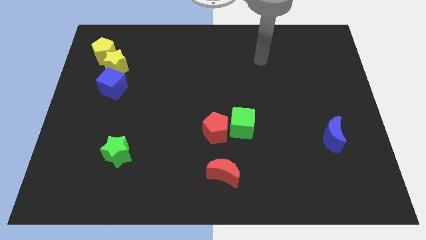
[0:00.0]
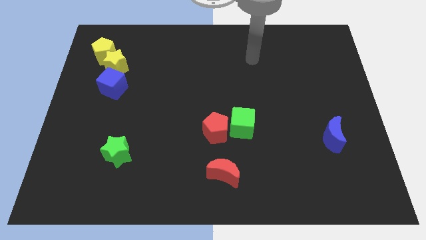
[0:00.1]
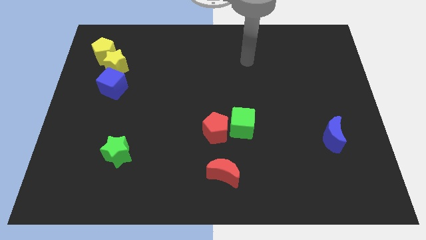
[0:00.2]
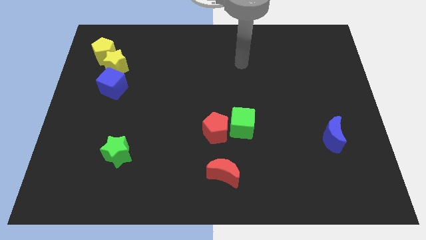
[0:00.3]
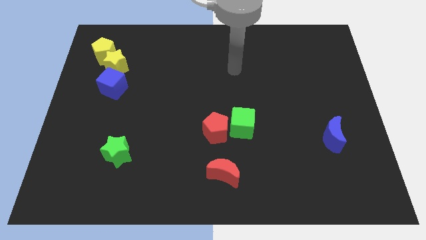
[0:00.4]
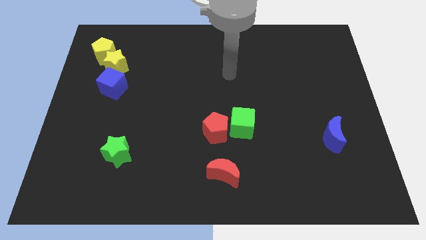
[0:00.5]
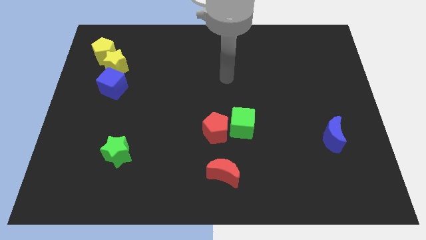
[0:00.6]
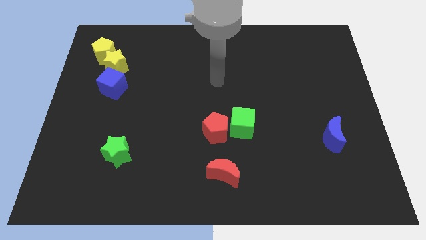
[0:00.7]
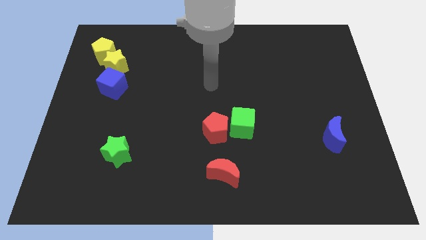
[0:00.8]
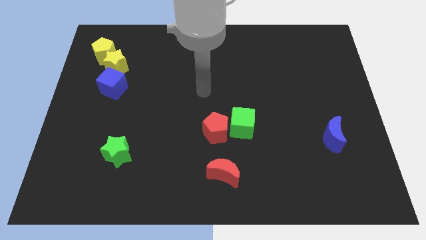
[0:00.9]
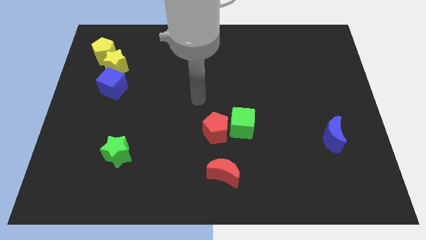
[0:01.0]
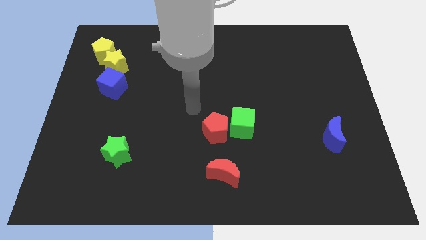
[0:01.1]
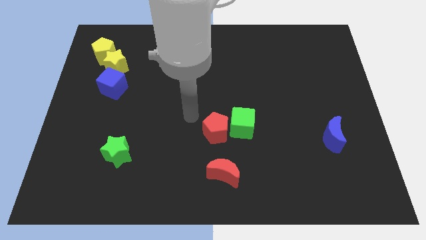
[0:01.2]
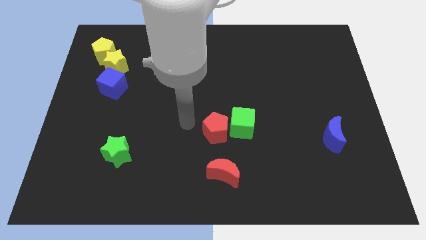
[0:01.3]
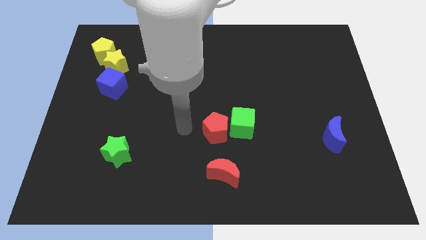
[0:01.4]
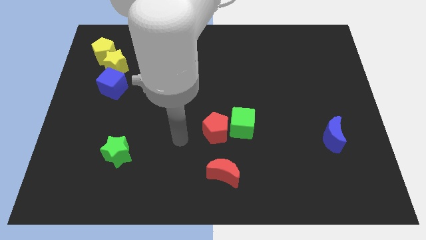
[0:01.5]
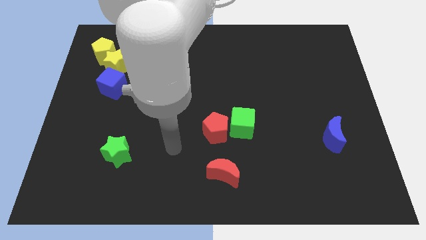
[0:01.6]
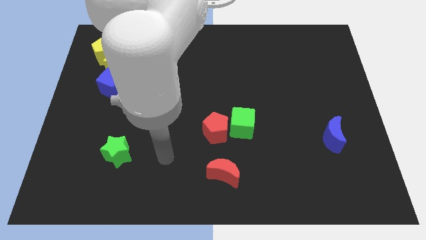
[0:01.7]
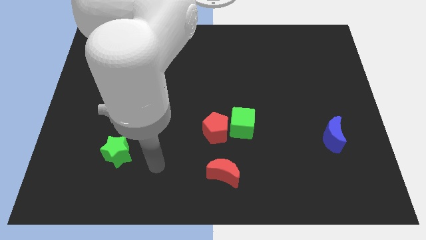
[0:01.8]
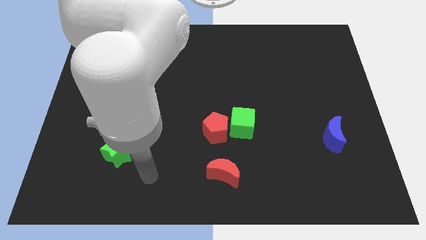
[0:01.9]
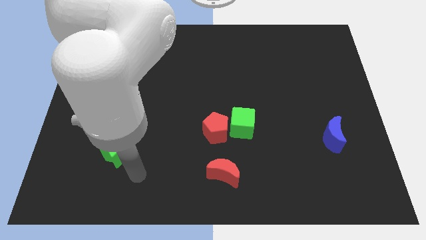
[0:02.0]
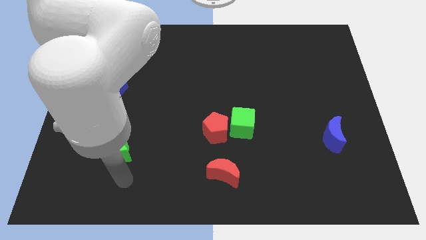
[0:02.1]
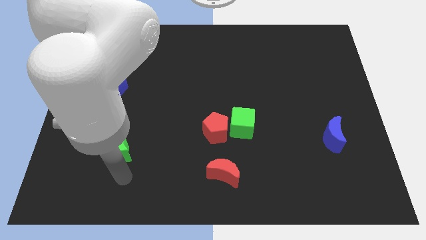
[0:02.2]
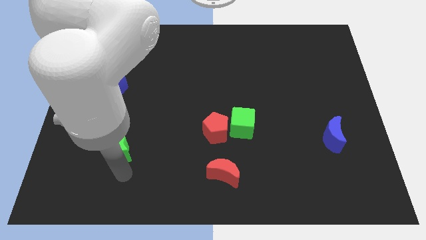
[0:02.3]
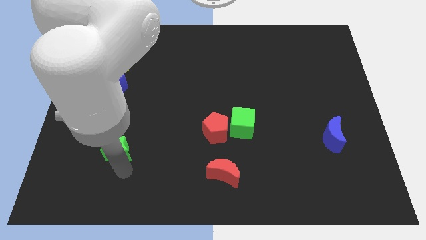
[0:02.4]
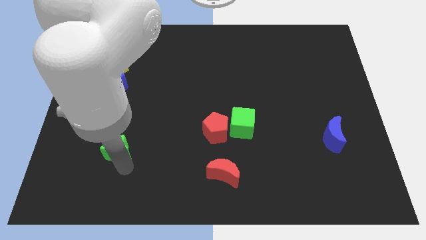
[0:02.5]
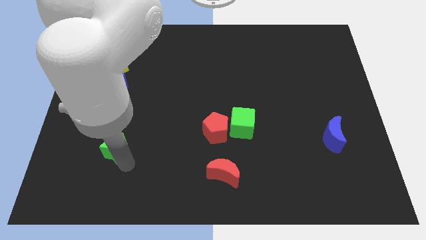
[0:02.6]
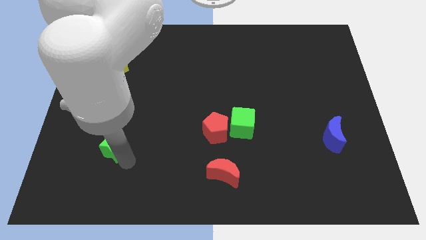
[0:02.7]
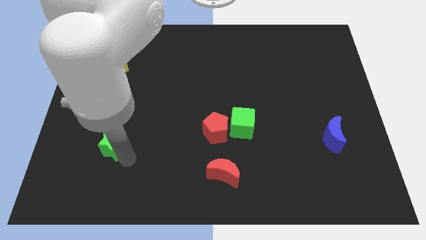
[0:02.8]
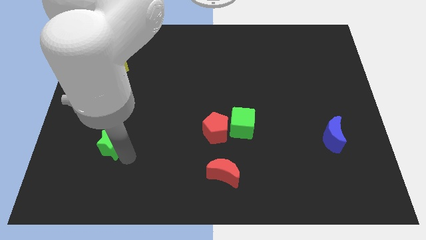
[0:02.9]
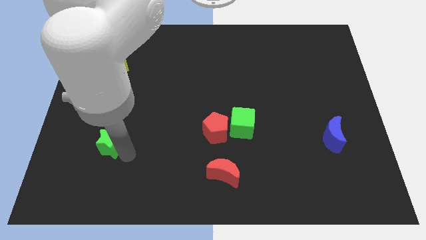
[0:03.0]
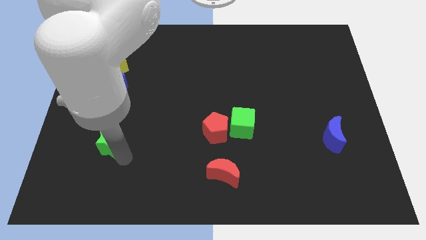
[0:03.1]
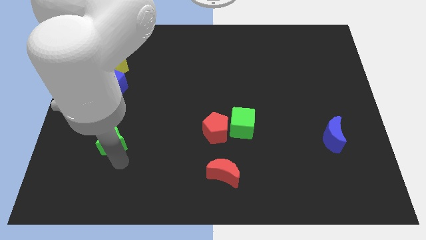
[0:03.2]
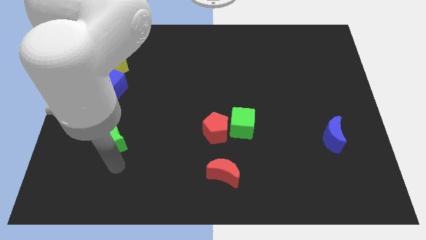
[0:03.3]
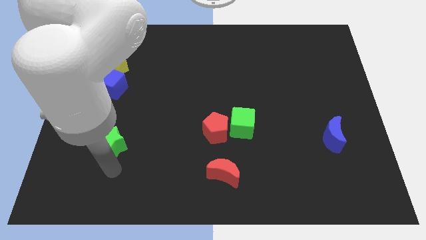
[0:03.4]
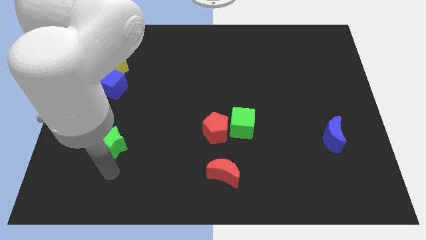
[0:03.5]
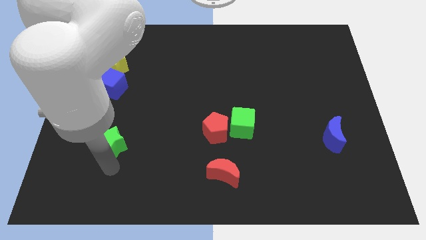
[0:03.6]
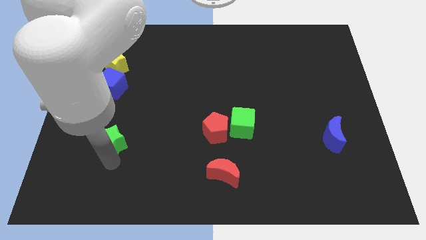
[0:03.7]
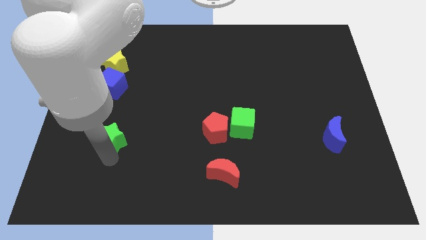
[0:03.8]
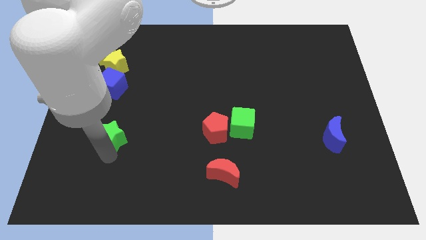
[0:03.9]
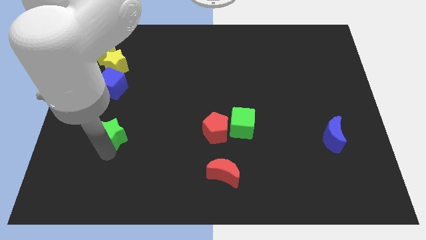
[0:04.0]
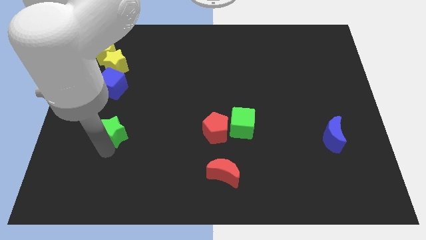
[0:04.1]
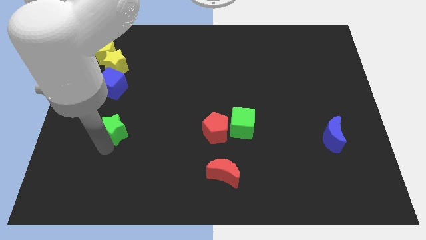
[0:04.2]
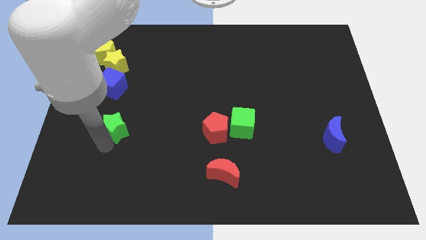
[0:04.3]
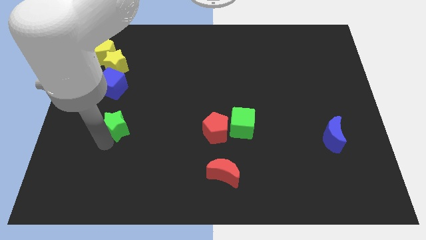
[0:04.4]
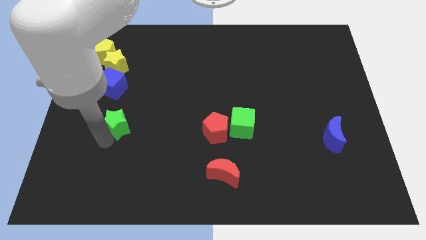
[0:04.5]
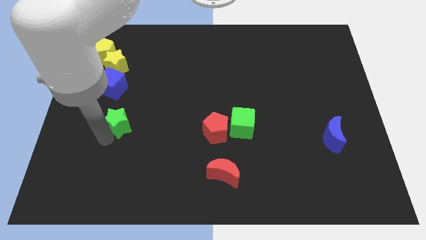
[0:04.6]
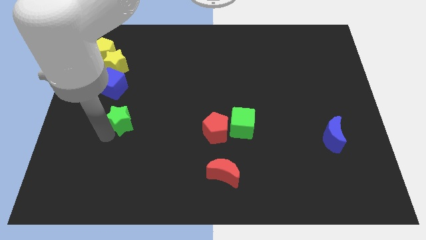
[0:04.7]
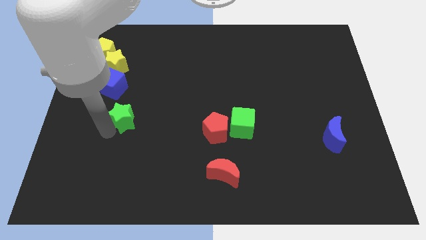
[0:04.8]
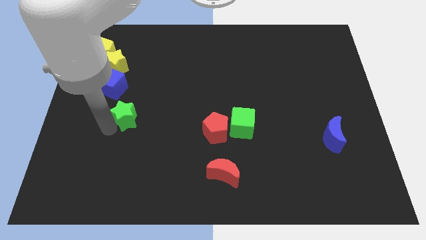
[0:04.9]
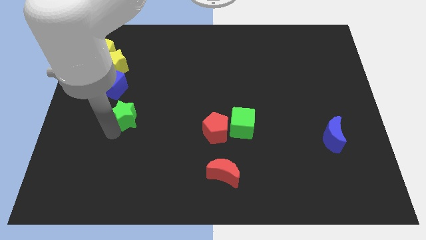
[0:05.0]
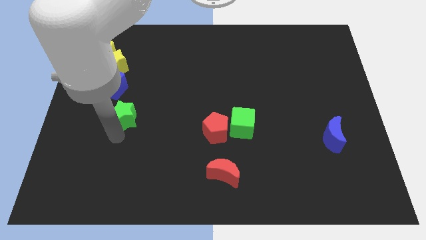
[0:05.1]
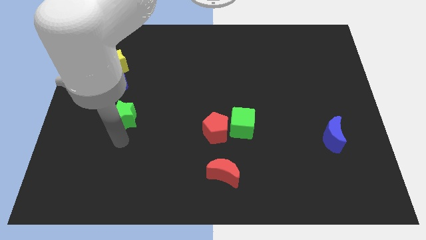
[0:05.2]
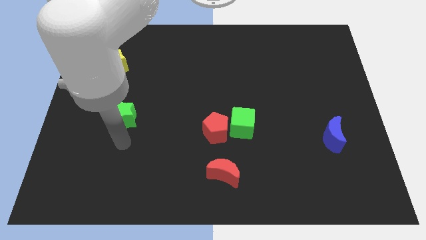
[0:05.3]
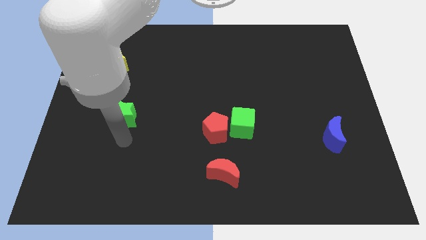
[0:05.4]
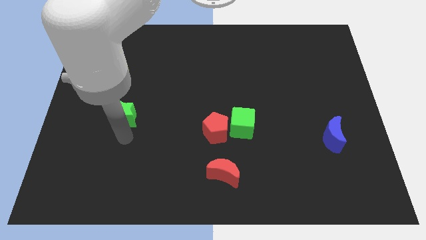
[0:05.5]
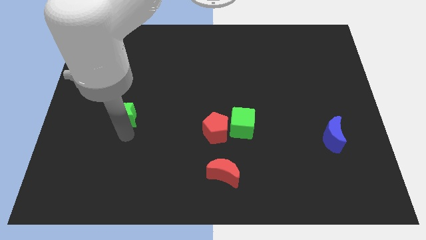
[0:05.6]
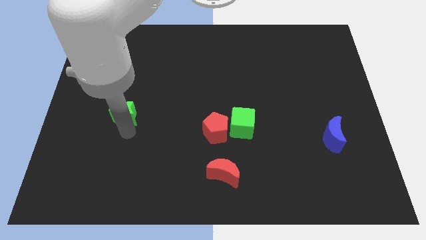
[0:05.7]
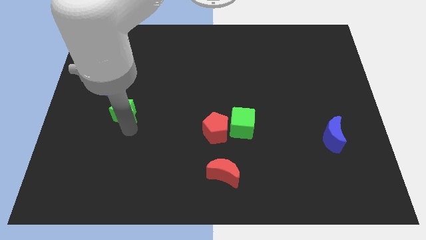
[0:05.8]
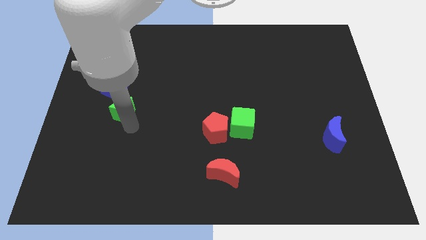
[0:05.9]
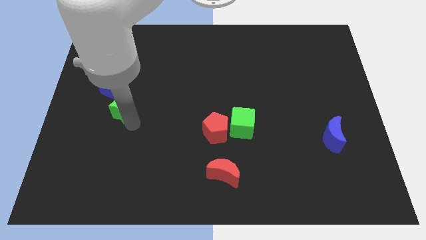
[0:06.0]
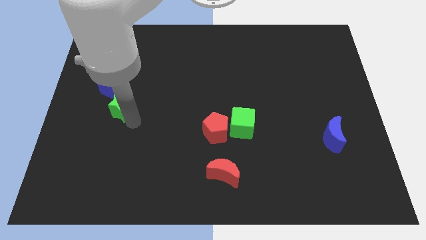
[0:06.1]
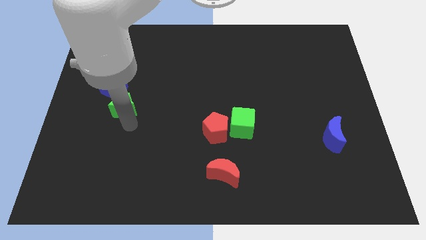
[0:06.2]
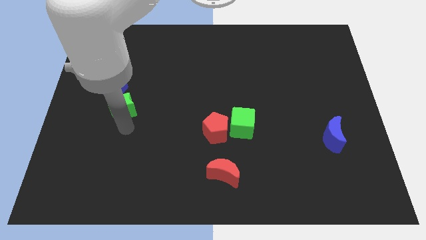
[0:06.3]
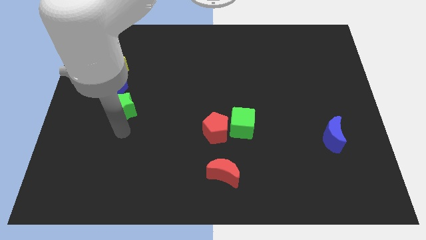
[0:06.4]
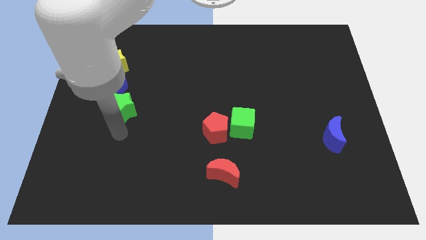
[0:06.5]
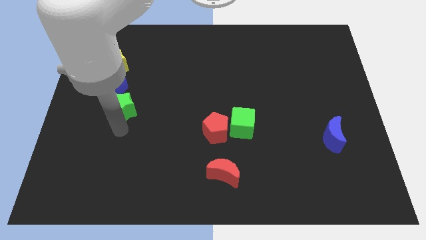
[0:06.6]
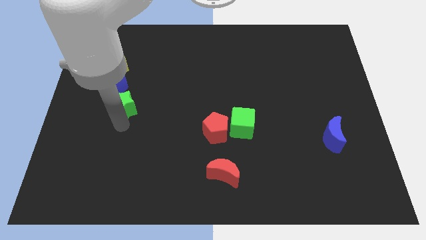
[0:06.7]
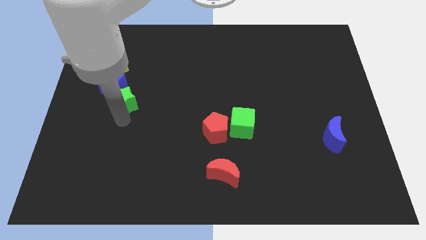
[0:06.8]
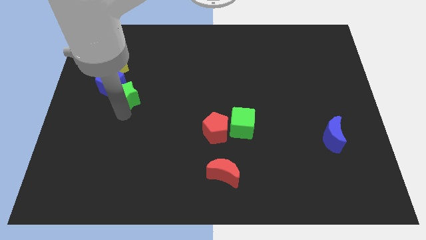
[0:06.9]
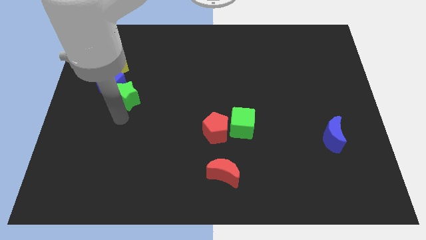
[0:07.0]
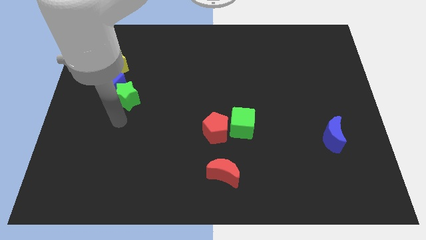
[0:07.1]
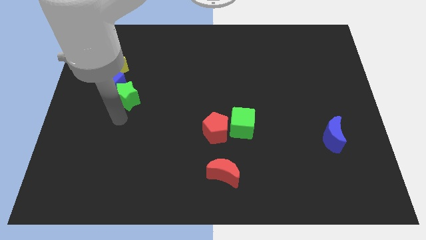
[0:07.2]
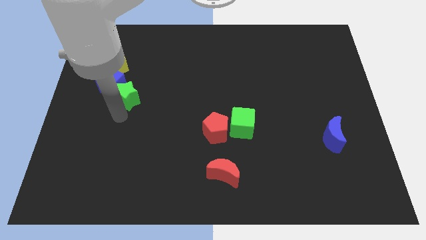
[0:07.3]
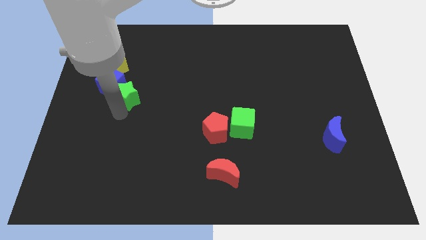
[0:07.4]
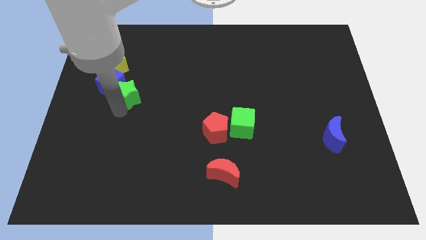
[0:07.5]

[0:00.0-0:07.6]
move the green star to the bottom right side of the yellow star

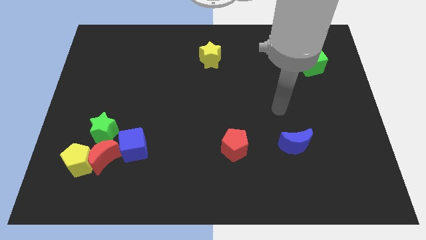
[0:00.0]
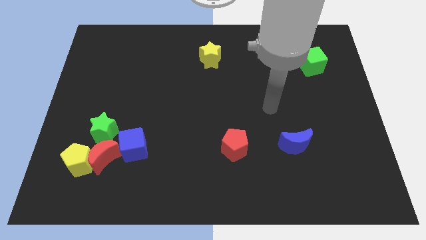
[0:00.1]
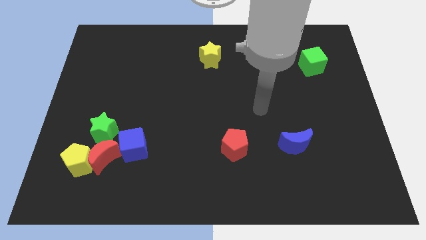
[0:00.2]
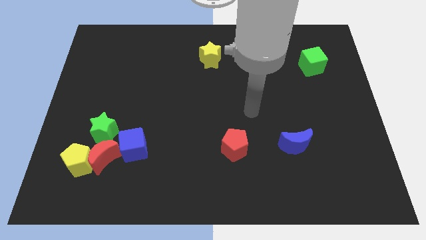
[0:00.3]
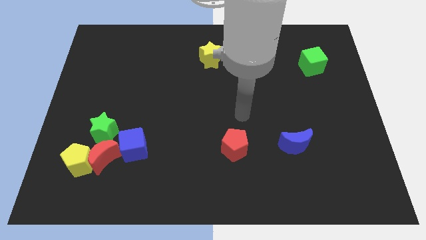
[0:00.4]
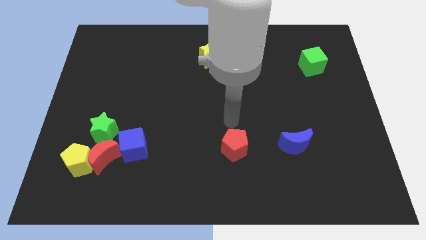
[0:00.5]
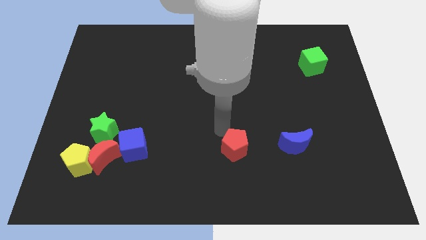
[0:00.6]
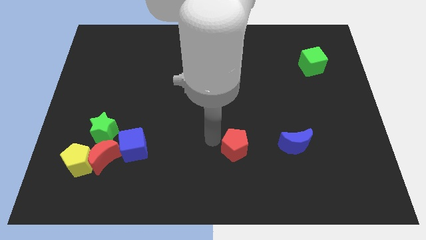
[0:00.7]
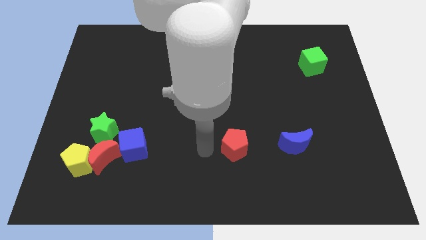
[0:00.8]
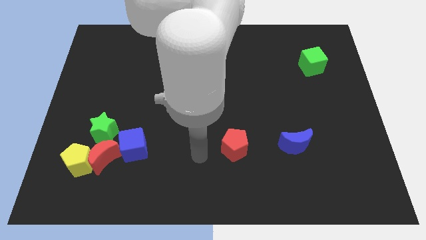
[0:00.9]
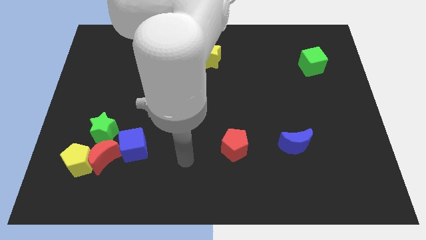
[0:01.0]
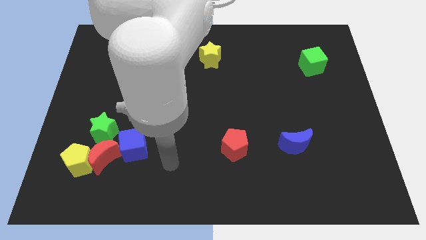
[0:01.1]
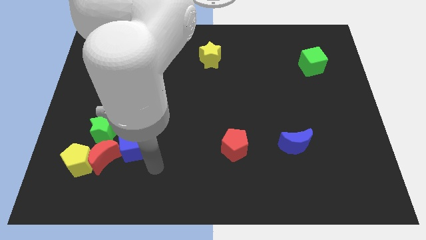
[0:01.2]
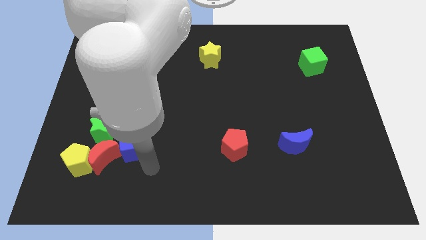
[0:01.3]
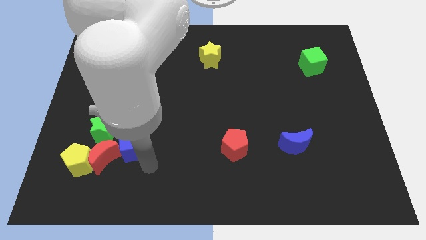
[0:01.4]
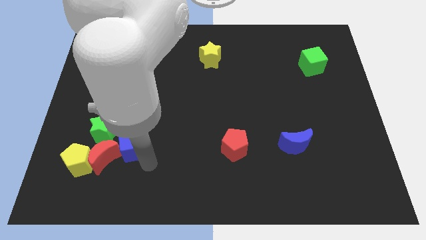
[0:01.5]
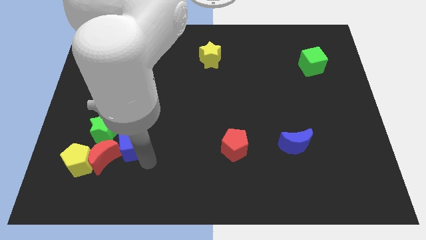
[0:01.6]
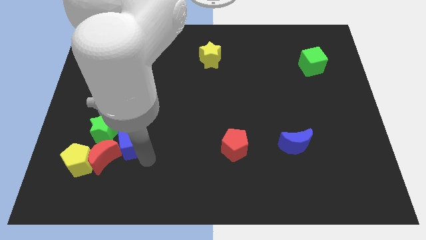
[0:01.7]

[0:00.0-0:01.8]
put the blue cube to the top right side of the yellow pentagon
